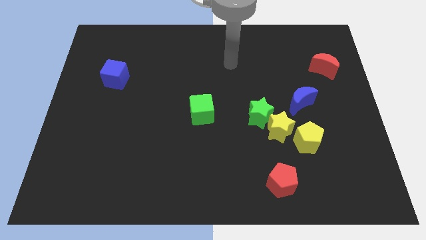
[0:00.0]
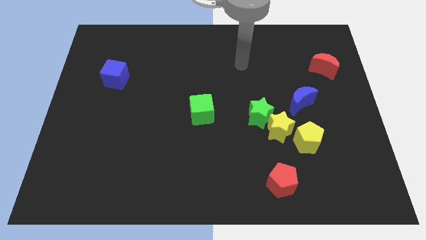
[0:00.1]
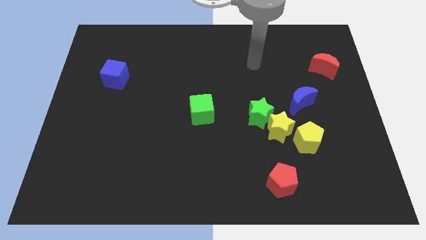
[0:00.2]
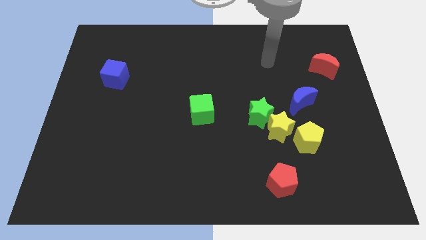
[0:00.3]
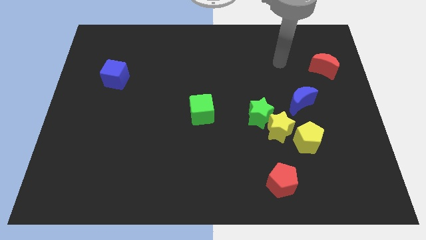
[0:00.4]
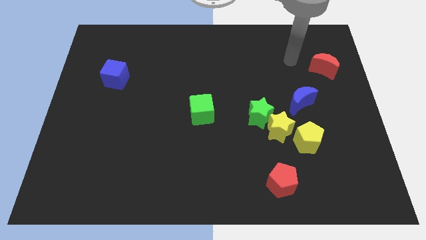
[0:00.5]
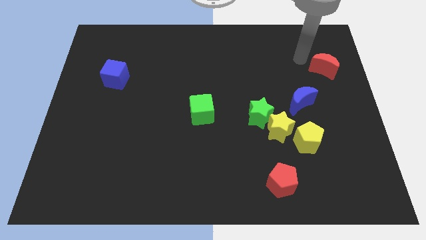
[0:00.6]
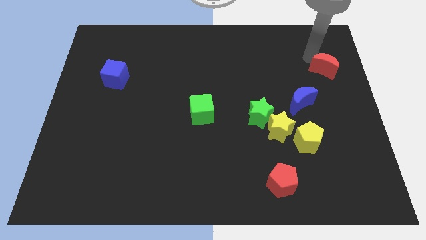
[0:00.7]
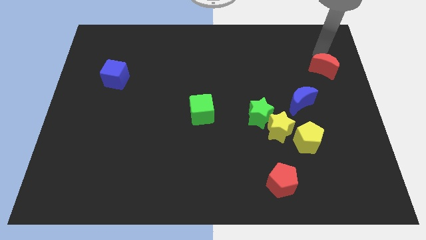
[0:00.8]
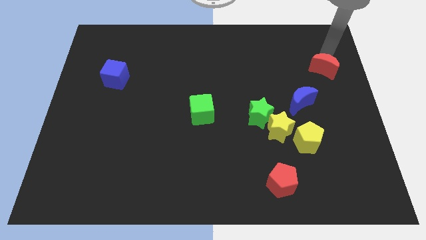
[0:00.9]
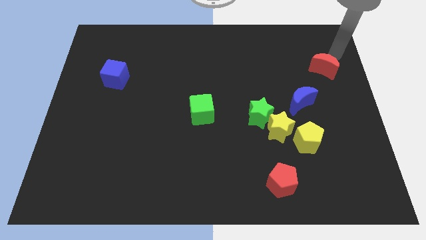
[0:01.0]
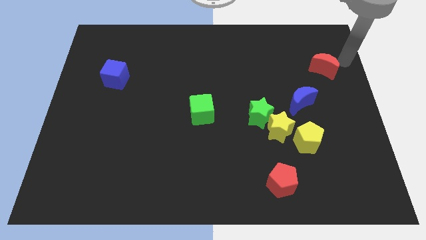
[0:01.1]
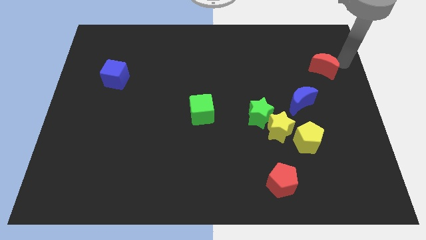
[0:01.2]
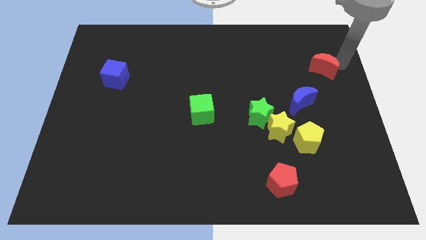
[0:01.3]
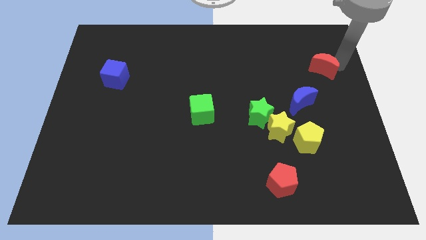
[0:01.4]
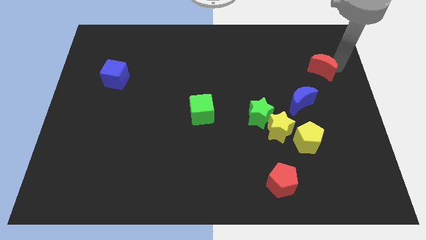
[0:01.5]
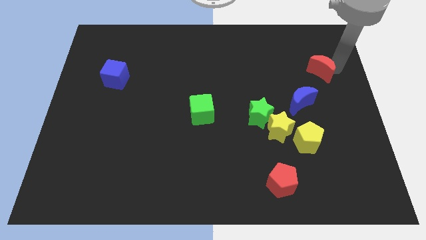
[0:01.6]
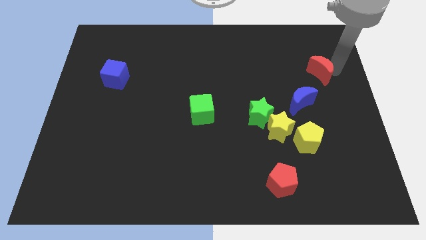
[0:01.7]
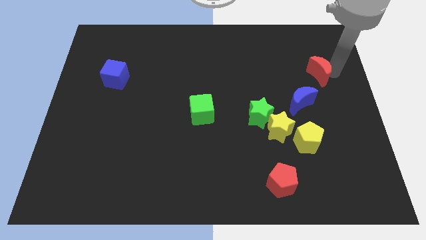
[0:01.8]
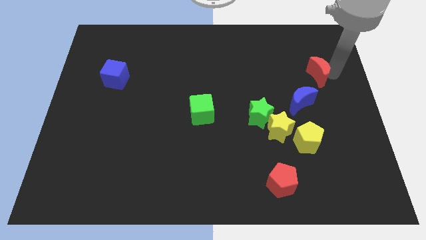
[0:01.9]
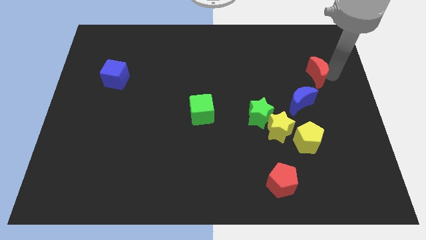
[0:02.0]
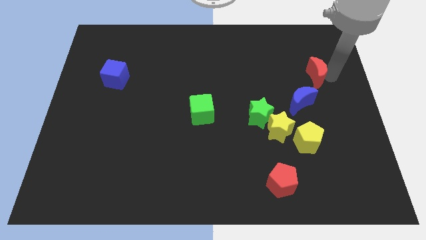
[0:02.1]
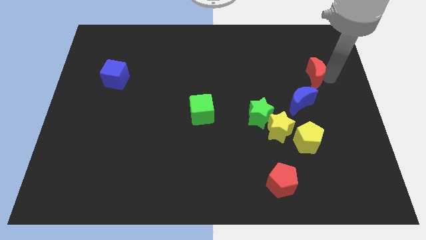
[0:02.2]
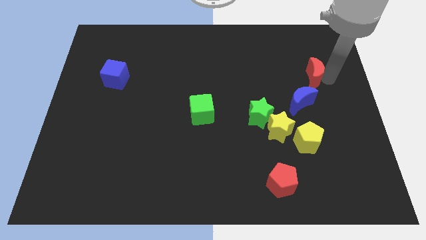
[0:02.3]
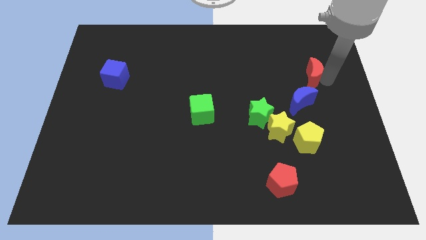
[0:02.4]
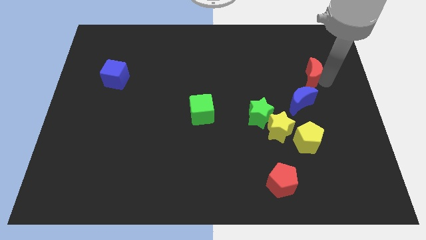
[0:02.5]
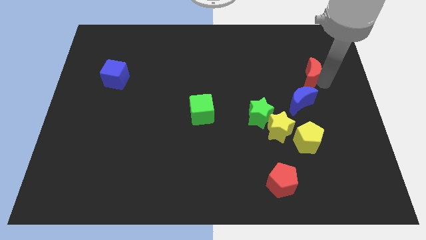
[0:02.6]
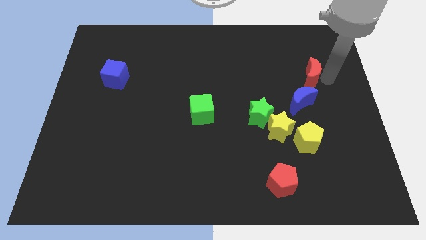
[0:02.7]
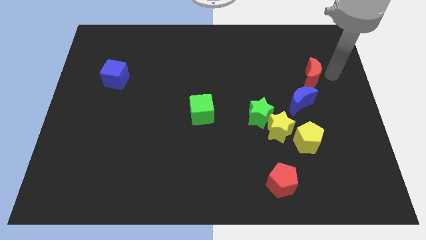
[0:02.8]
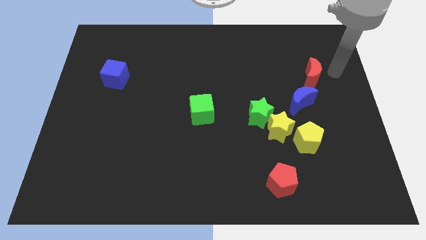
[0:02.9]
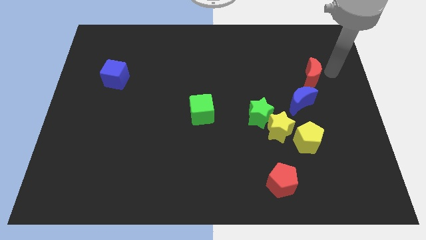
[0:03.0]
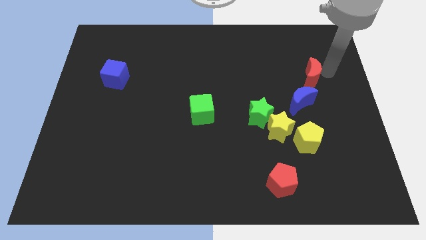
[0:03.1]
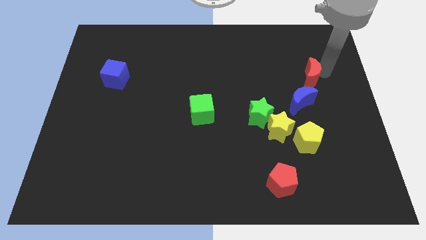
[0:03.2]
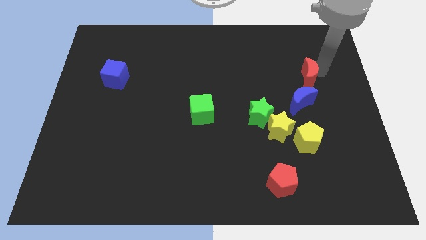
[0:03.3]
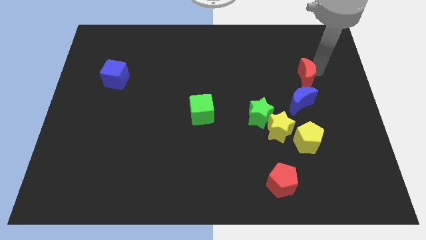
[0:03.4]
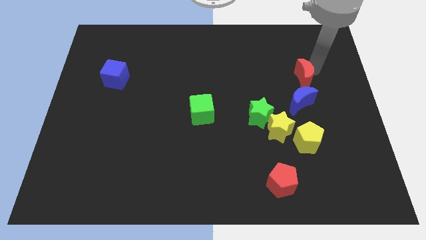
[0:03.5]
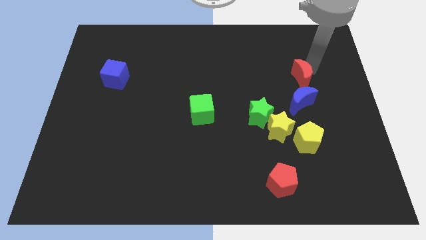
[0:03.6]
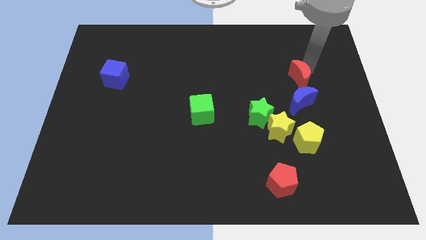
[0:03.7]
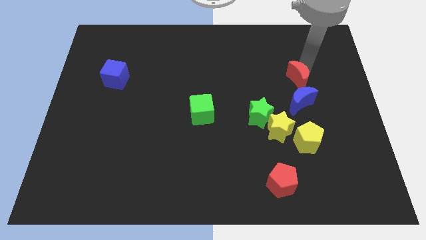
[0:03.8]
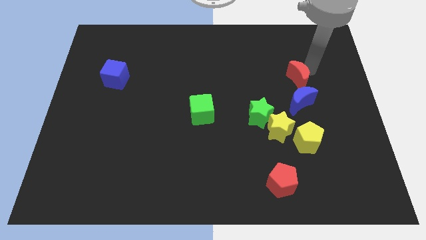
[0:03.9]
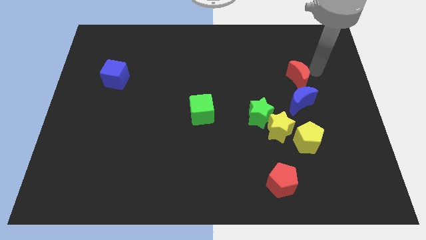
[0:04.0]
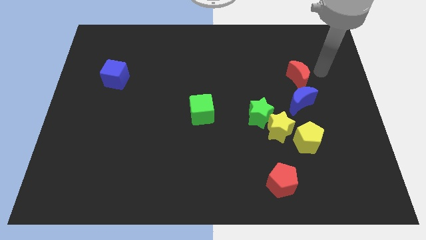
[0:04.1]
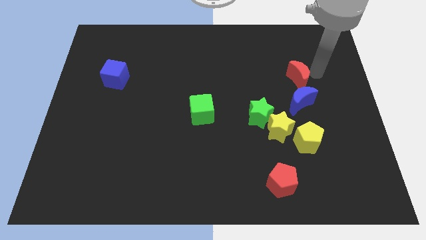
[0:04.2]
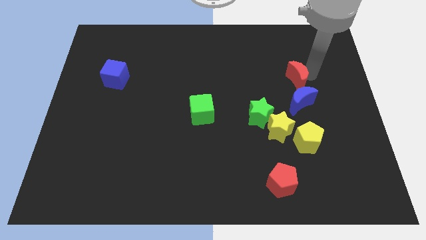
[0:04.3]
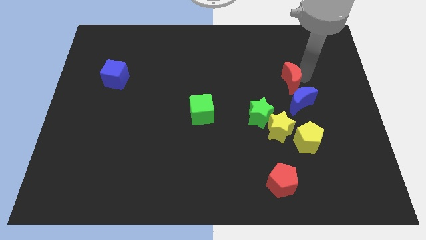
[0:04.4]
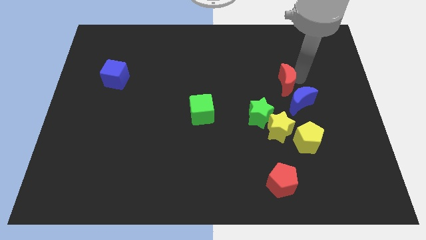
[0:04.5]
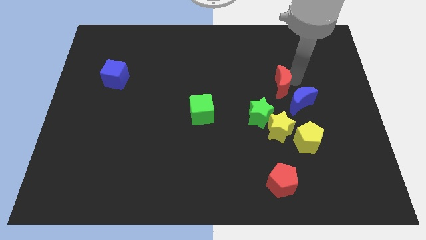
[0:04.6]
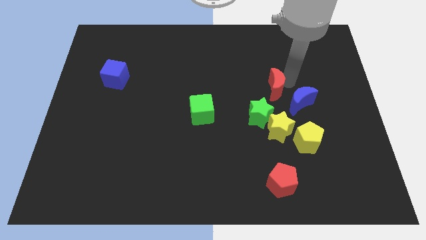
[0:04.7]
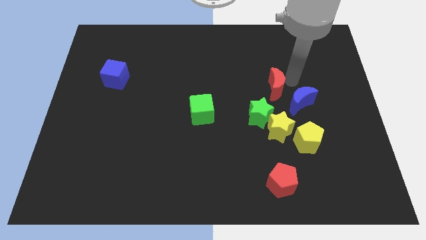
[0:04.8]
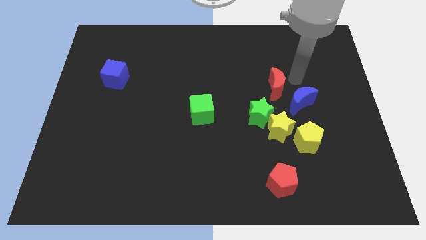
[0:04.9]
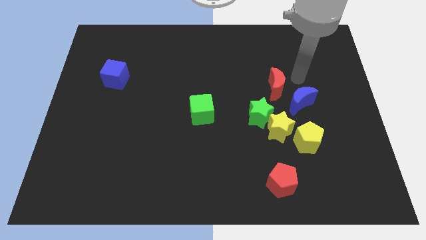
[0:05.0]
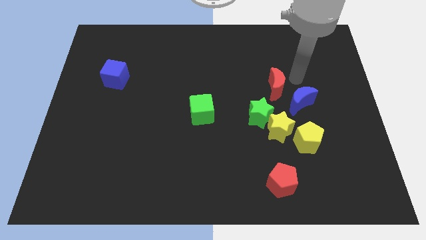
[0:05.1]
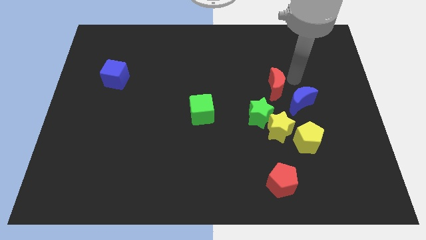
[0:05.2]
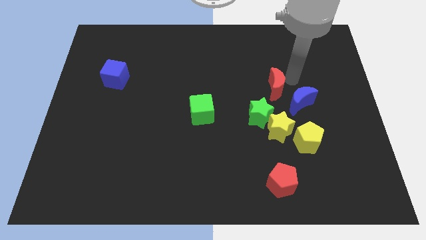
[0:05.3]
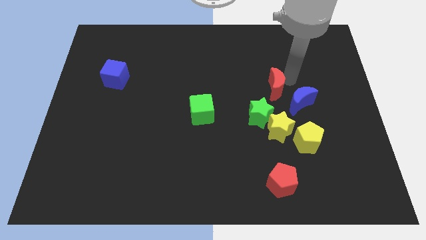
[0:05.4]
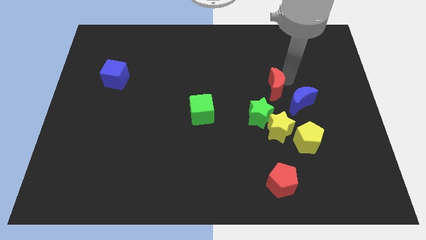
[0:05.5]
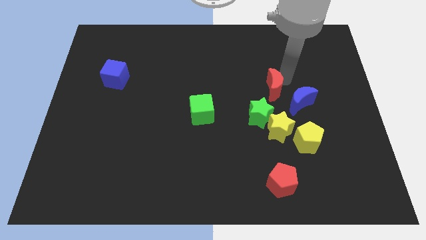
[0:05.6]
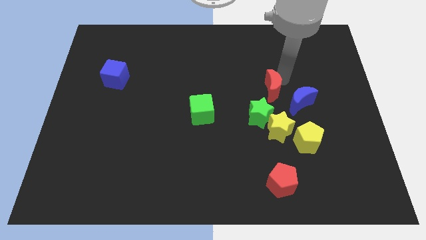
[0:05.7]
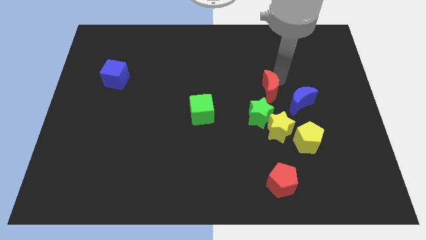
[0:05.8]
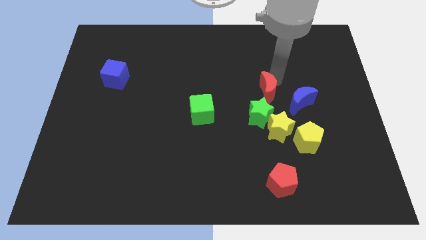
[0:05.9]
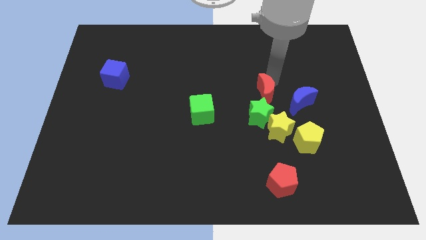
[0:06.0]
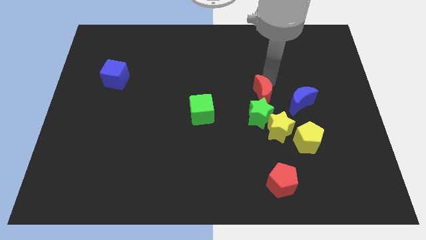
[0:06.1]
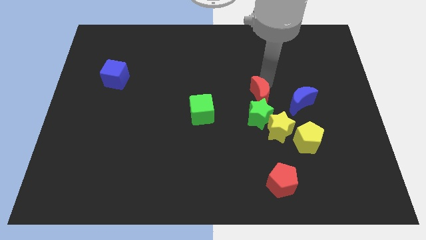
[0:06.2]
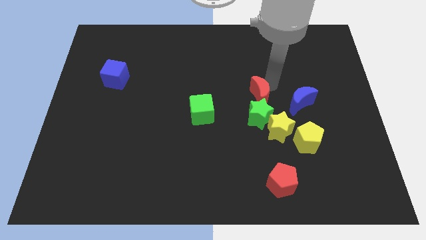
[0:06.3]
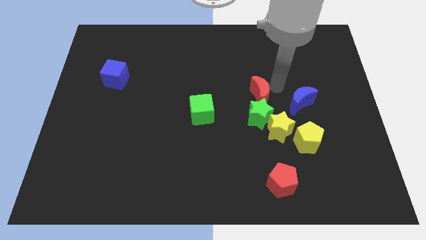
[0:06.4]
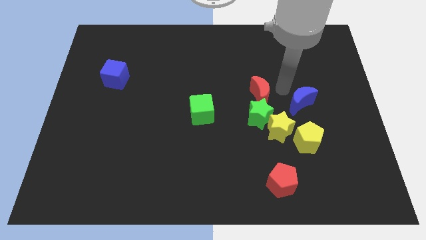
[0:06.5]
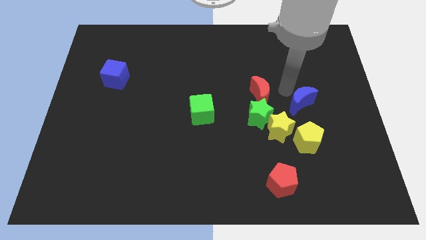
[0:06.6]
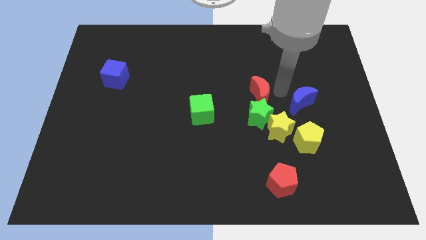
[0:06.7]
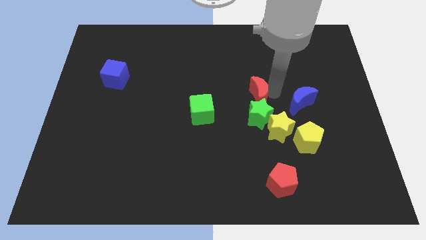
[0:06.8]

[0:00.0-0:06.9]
slide the red moon to the top left of the green star
